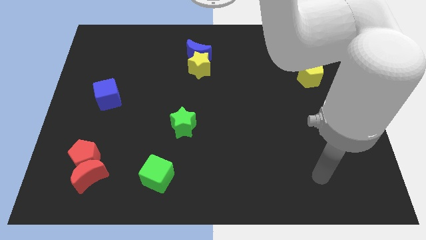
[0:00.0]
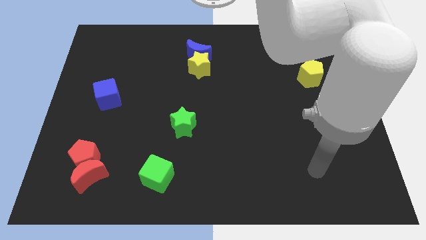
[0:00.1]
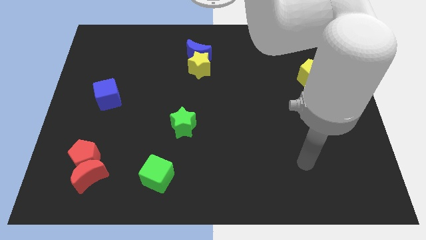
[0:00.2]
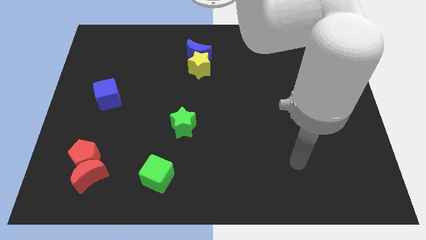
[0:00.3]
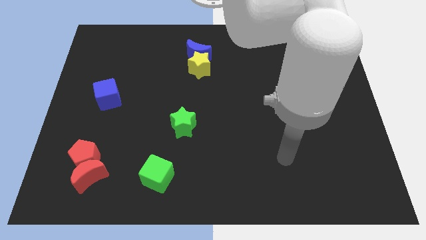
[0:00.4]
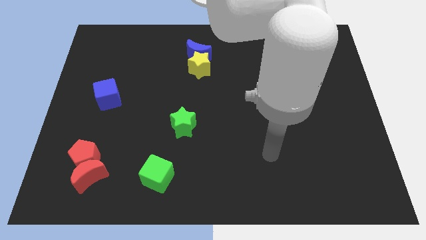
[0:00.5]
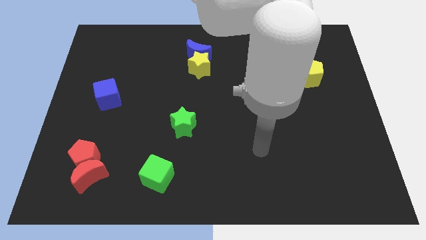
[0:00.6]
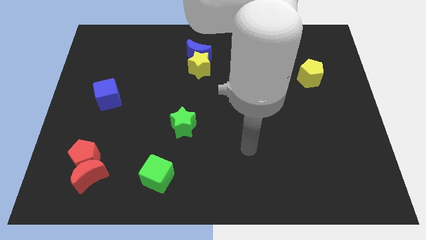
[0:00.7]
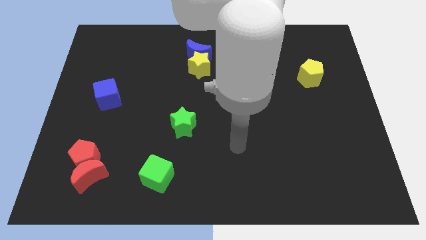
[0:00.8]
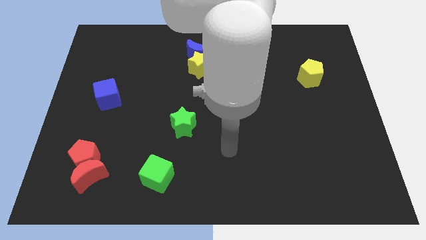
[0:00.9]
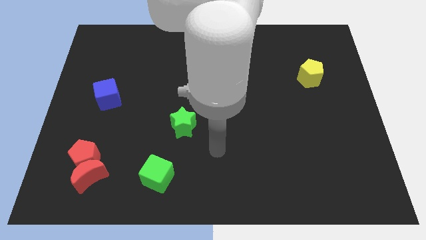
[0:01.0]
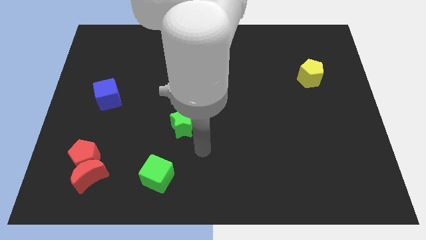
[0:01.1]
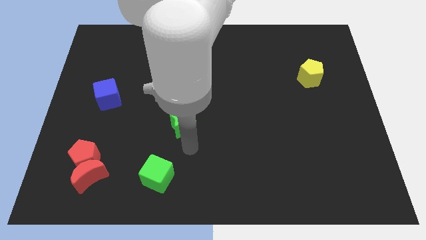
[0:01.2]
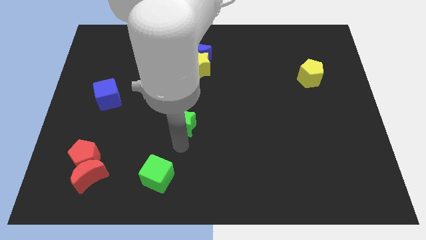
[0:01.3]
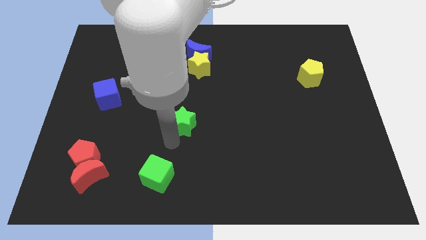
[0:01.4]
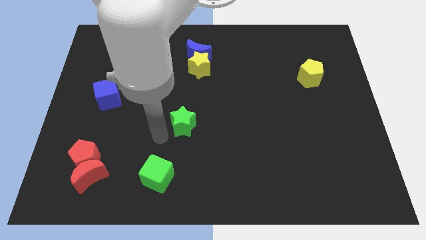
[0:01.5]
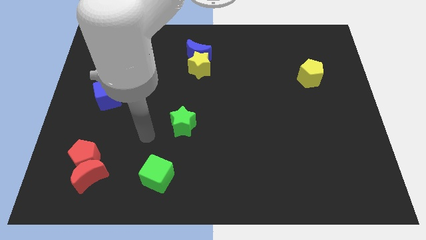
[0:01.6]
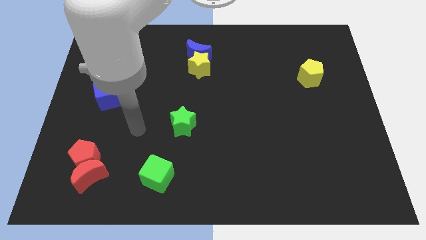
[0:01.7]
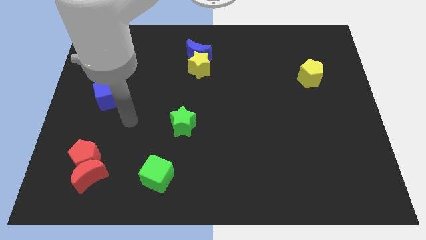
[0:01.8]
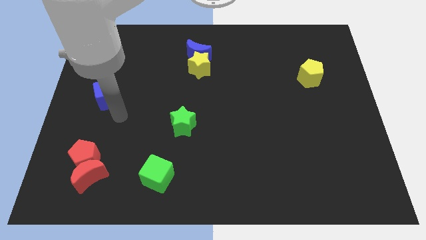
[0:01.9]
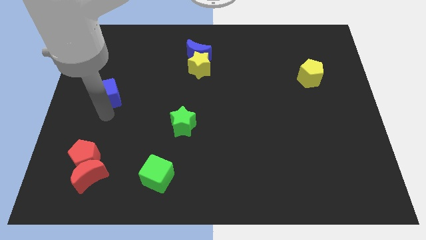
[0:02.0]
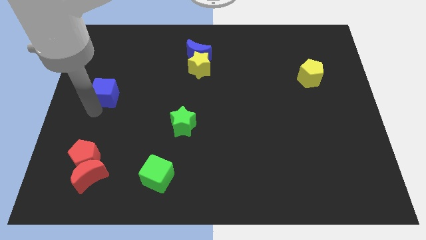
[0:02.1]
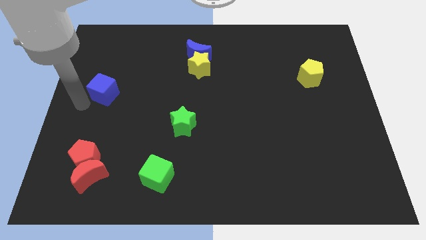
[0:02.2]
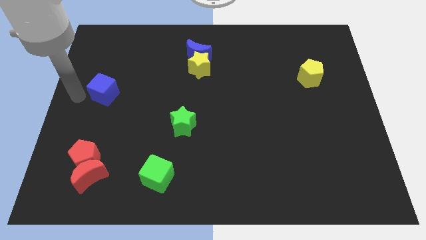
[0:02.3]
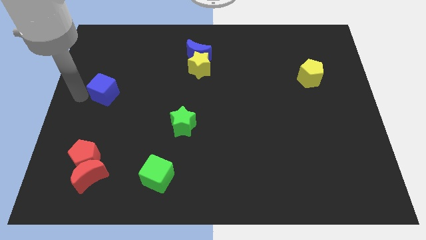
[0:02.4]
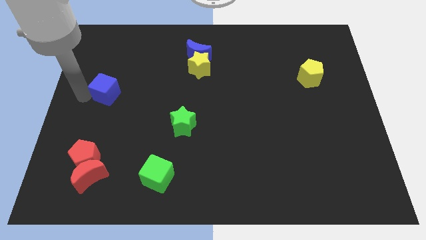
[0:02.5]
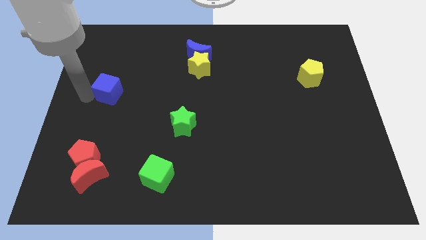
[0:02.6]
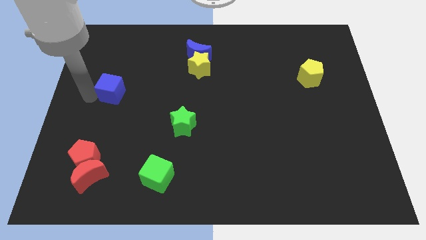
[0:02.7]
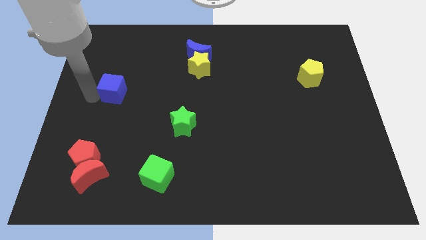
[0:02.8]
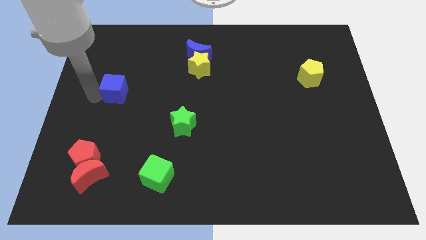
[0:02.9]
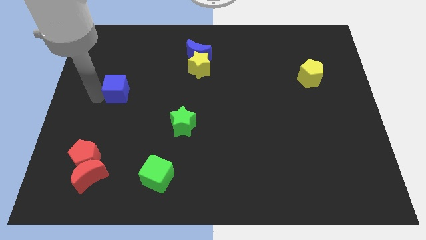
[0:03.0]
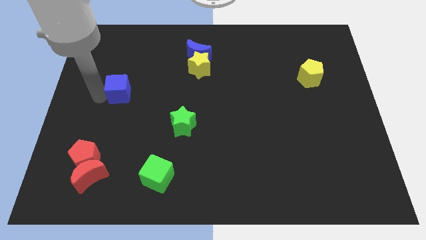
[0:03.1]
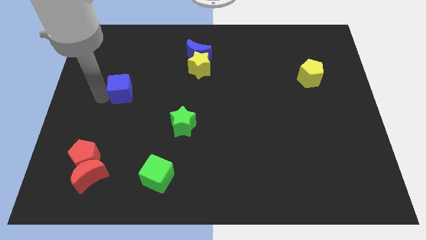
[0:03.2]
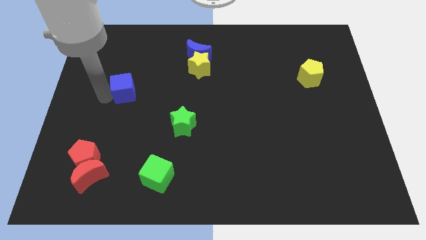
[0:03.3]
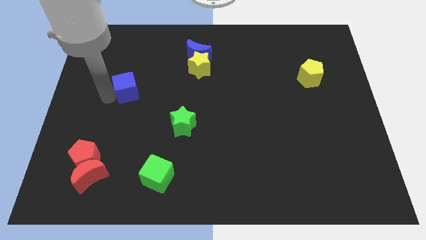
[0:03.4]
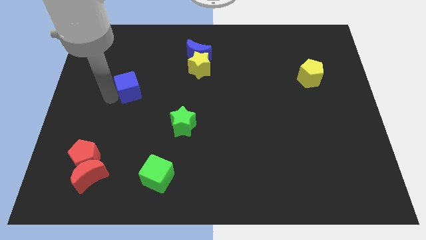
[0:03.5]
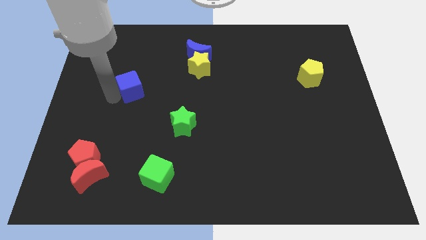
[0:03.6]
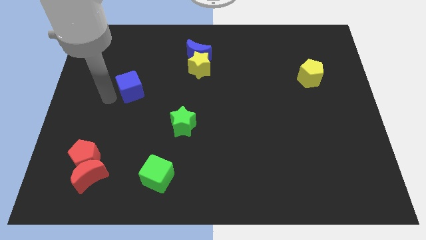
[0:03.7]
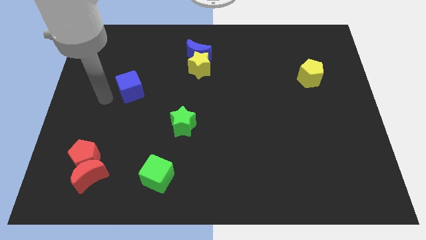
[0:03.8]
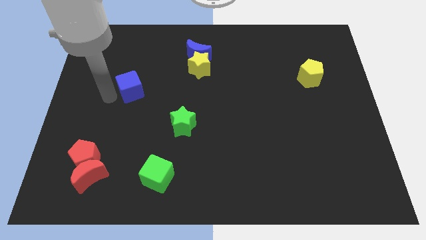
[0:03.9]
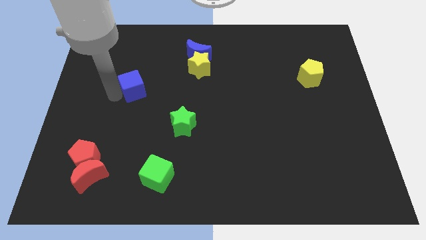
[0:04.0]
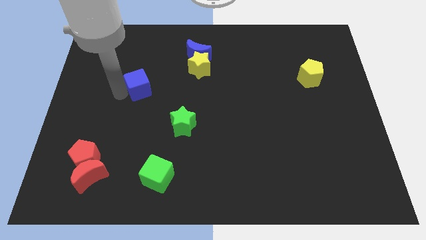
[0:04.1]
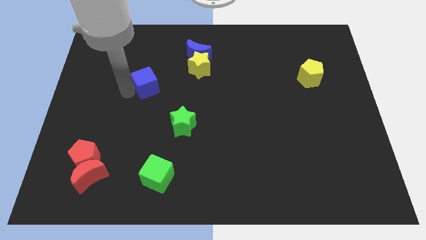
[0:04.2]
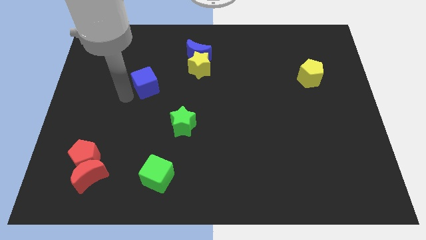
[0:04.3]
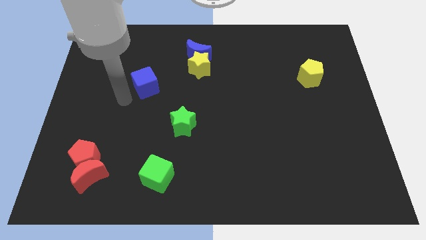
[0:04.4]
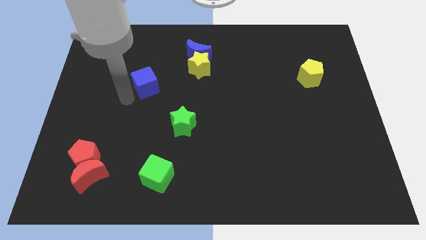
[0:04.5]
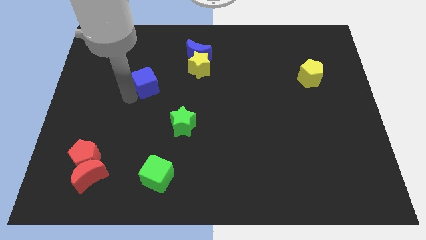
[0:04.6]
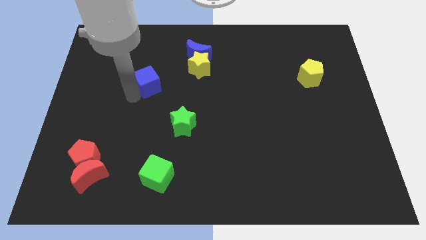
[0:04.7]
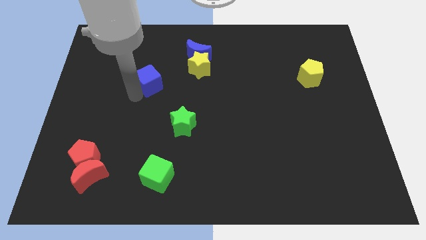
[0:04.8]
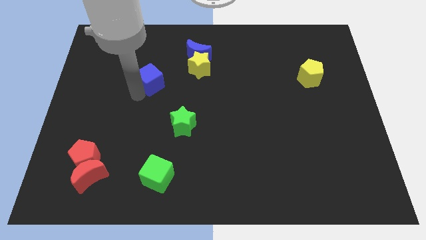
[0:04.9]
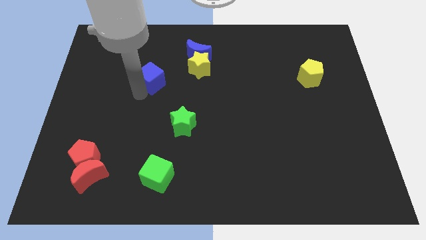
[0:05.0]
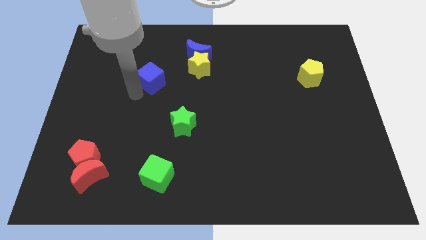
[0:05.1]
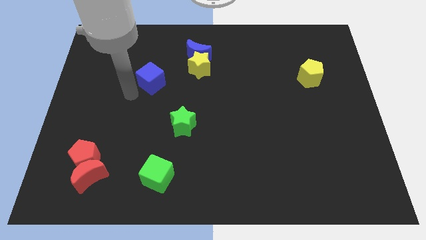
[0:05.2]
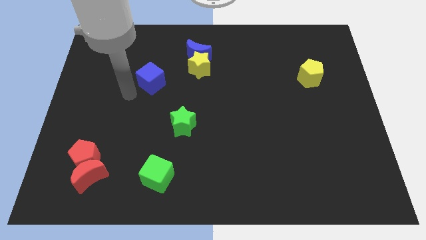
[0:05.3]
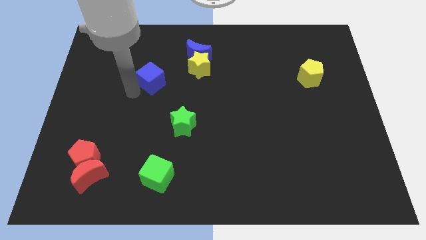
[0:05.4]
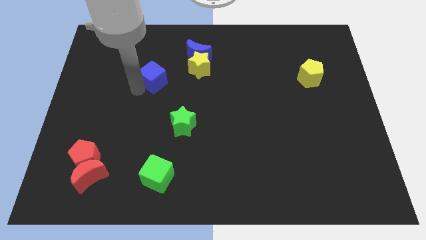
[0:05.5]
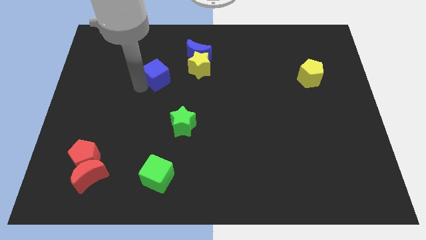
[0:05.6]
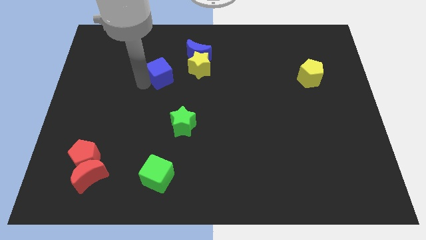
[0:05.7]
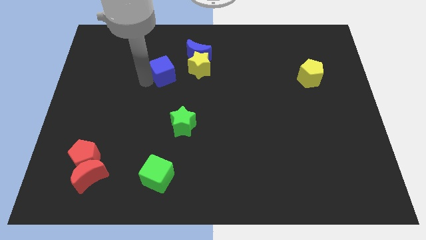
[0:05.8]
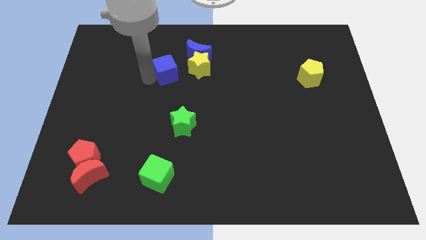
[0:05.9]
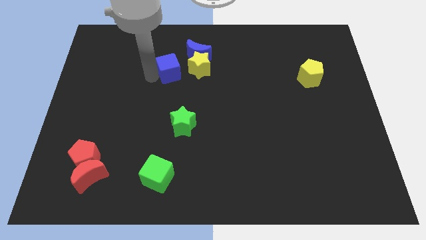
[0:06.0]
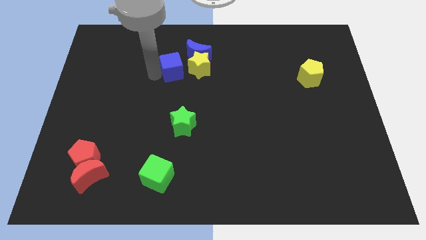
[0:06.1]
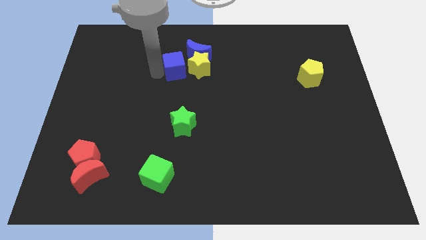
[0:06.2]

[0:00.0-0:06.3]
put the blue cube towards the yellow star

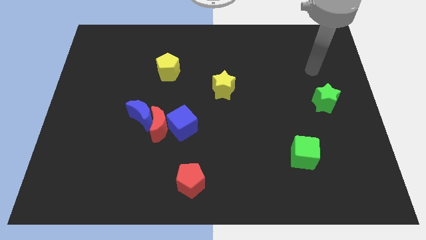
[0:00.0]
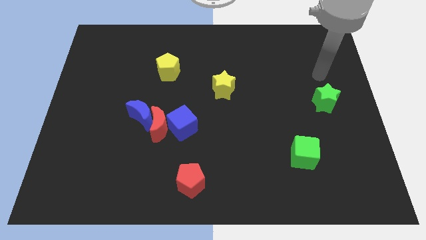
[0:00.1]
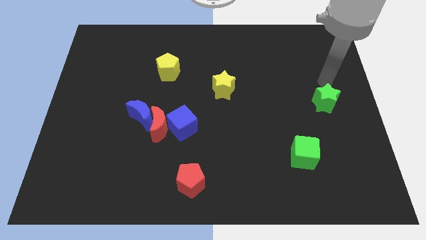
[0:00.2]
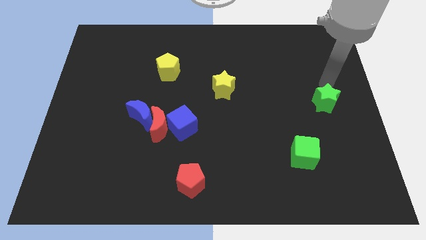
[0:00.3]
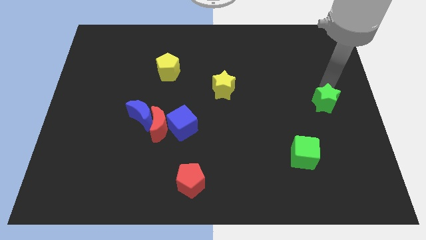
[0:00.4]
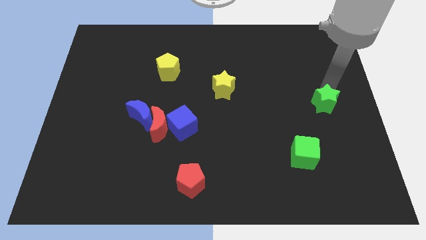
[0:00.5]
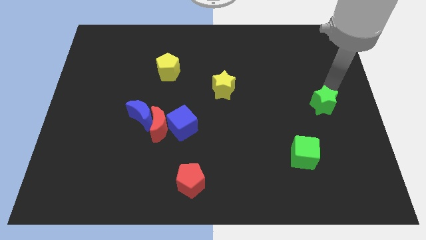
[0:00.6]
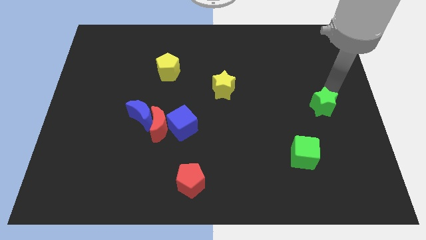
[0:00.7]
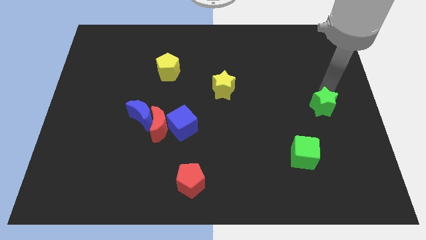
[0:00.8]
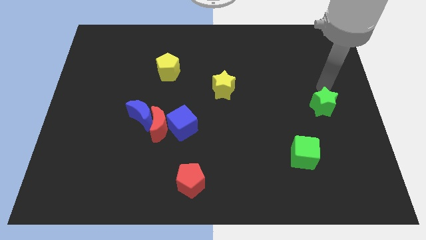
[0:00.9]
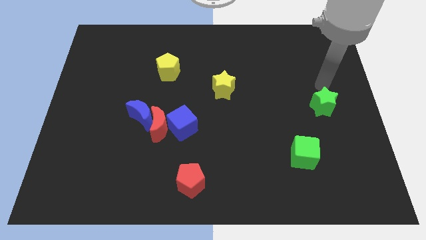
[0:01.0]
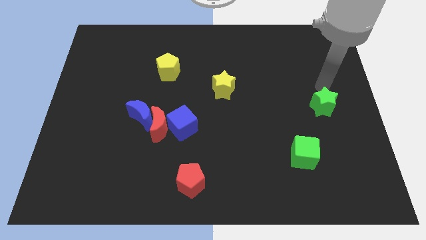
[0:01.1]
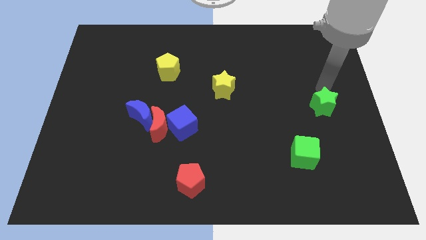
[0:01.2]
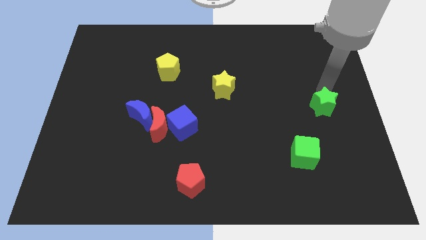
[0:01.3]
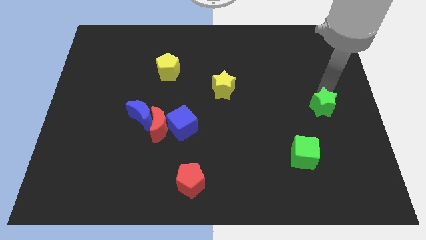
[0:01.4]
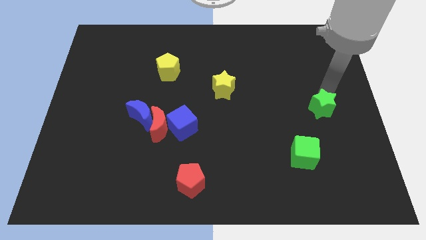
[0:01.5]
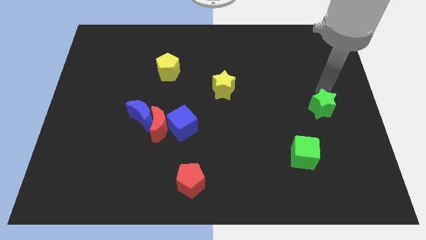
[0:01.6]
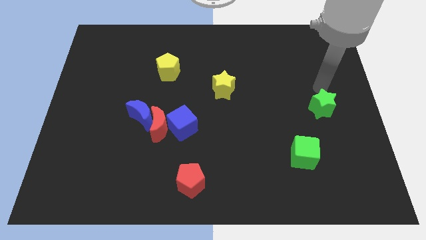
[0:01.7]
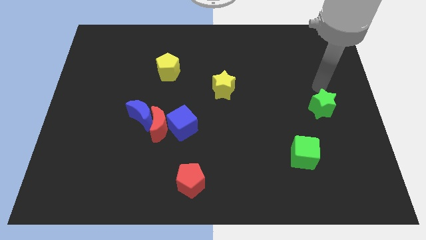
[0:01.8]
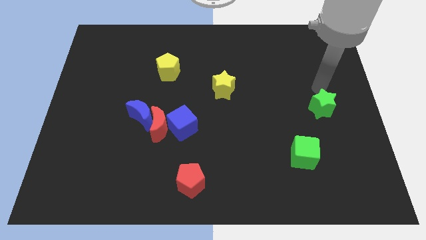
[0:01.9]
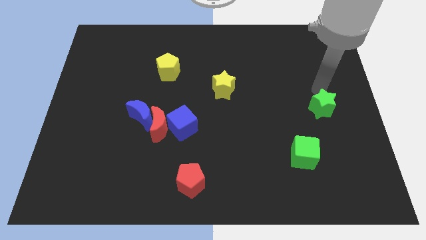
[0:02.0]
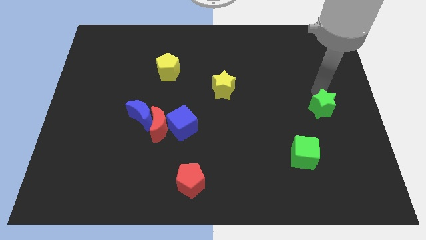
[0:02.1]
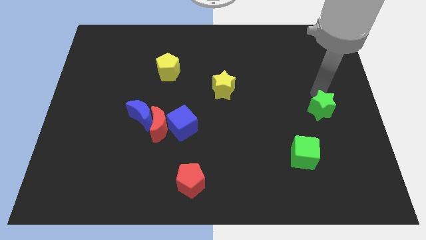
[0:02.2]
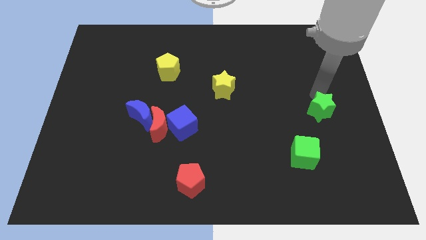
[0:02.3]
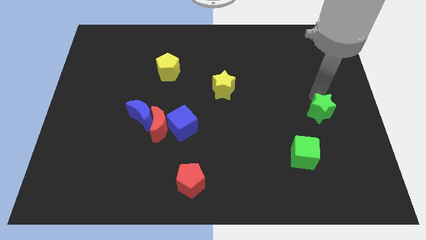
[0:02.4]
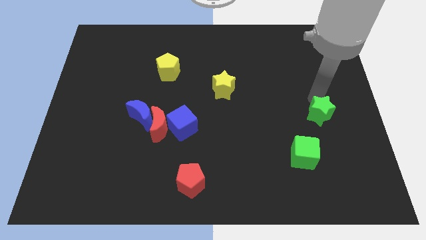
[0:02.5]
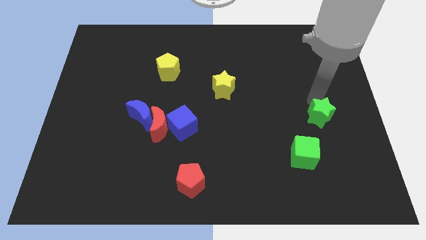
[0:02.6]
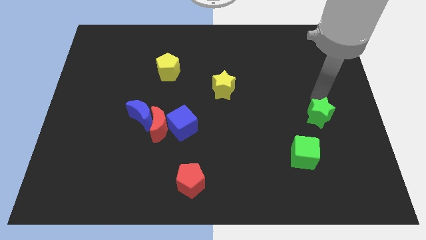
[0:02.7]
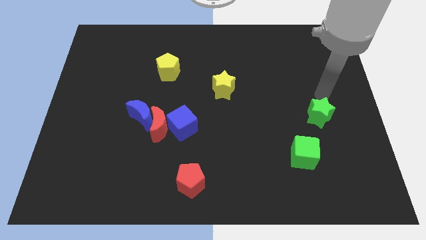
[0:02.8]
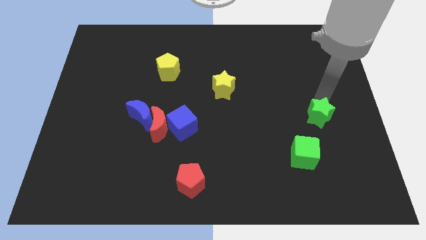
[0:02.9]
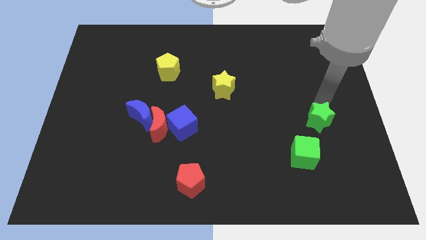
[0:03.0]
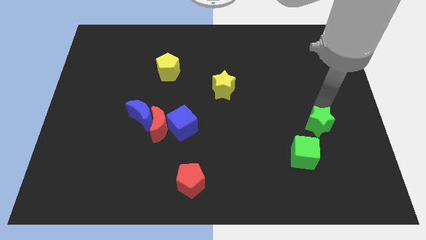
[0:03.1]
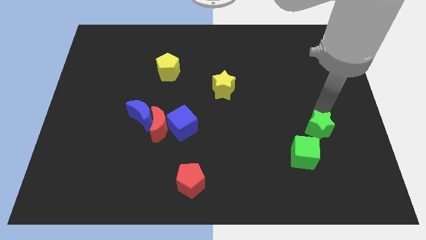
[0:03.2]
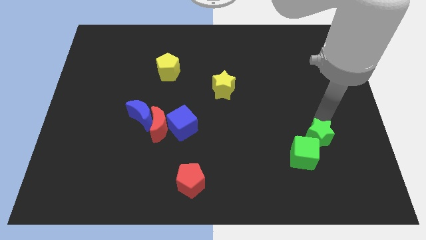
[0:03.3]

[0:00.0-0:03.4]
put the green star next to the green cube
